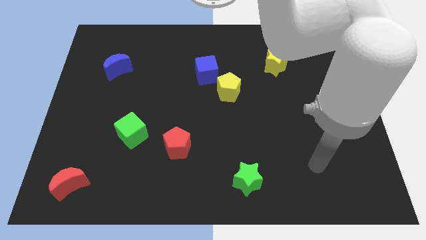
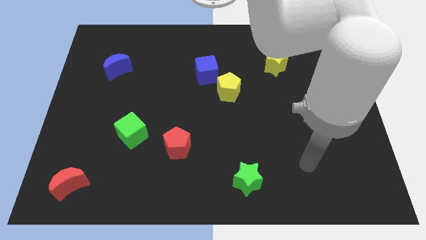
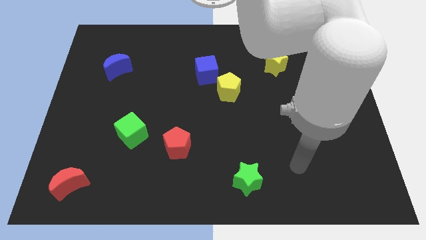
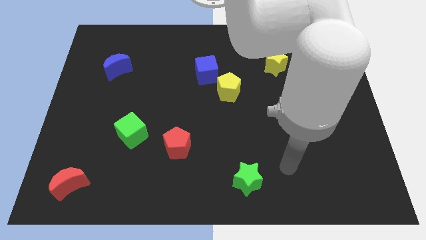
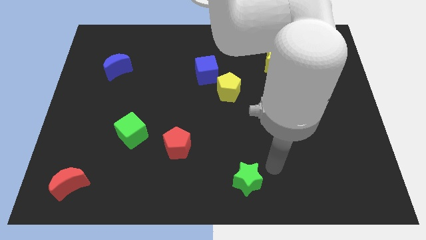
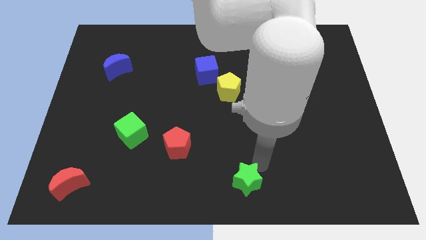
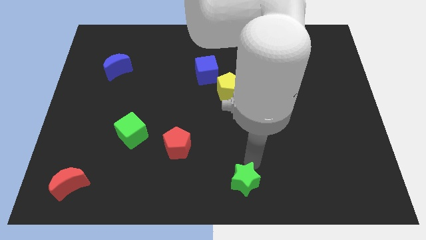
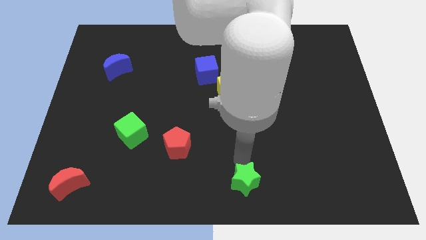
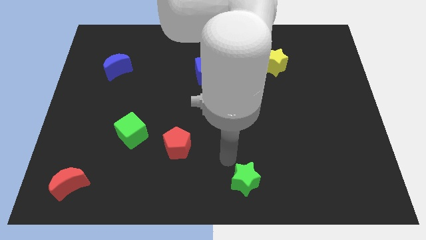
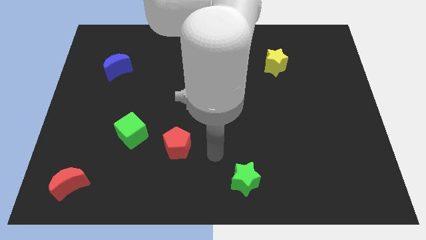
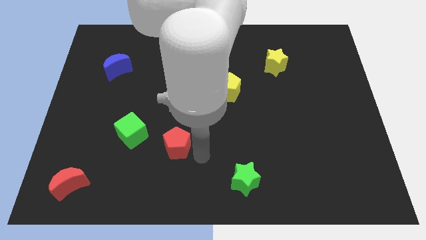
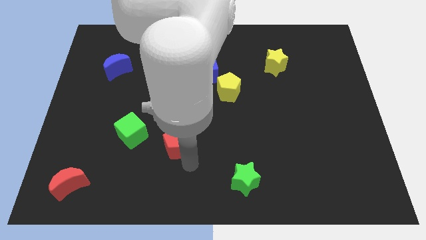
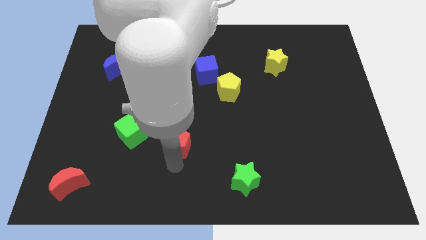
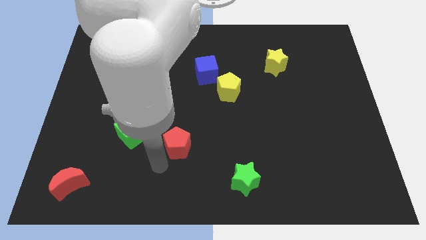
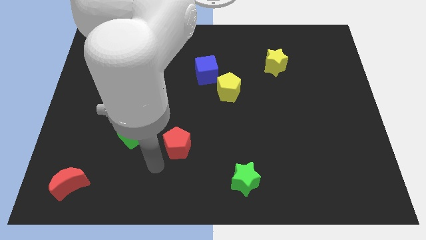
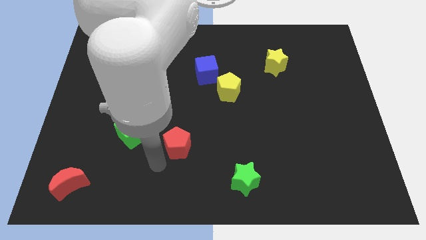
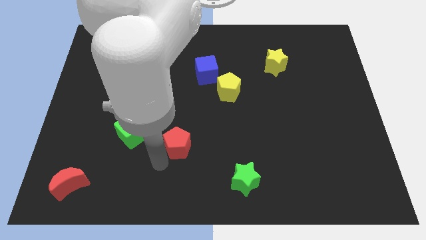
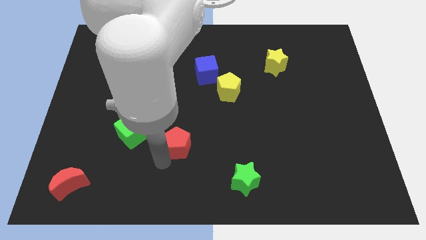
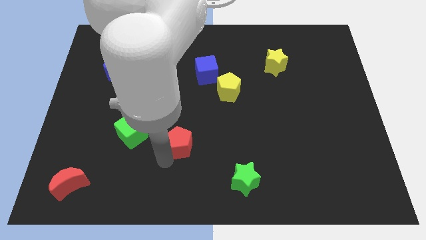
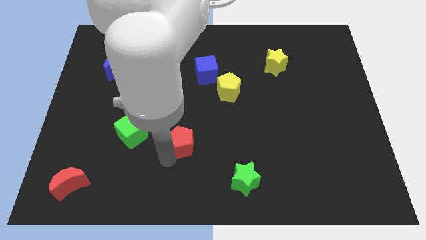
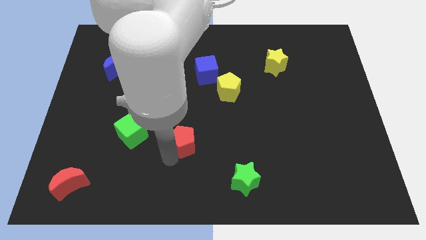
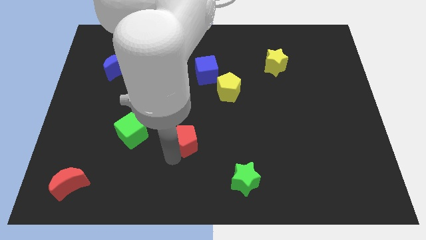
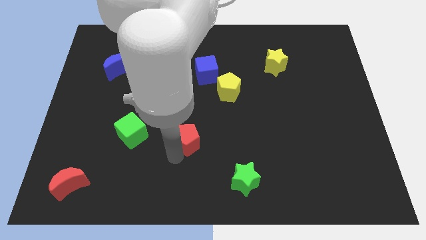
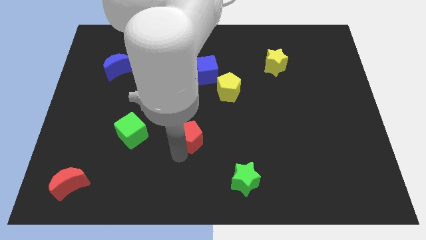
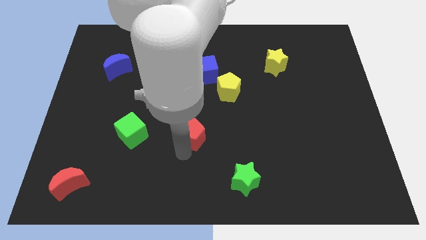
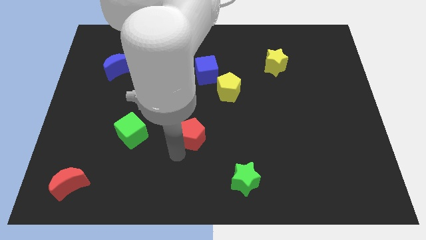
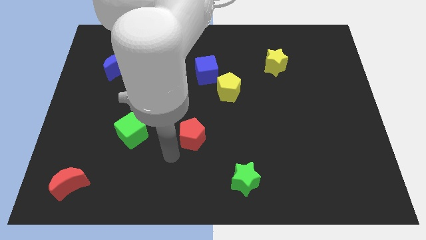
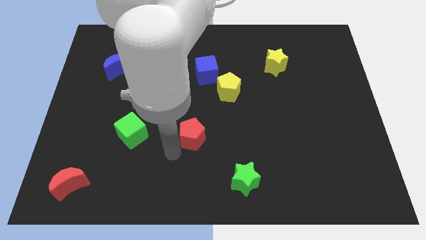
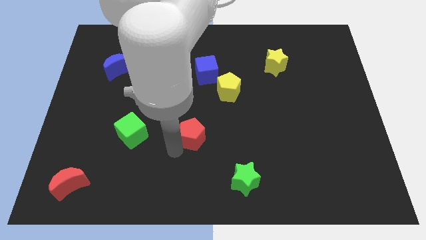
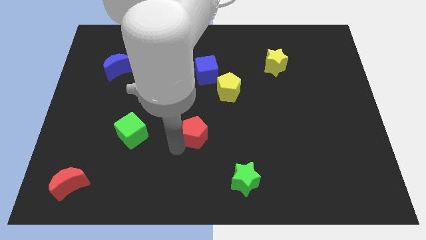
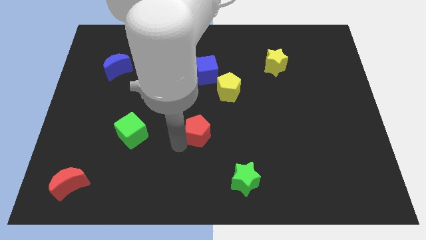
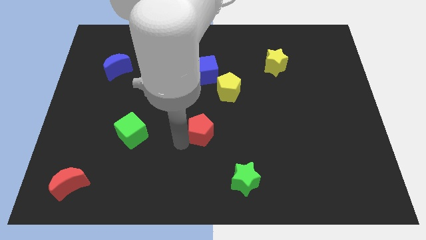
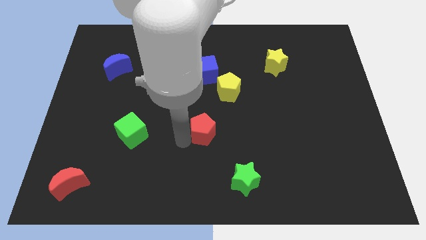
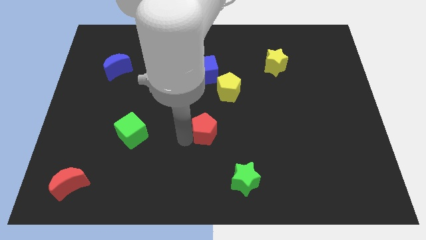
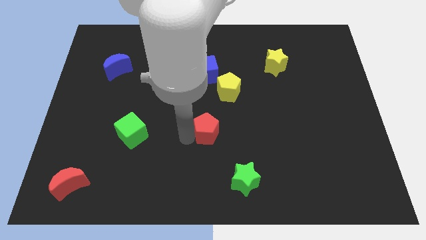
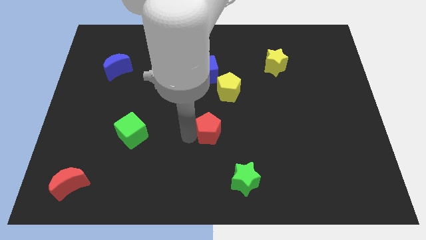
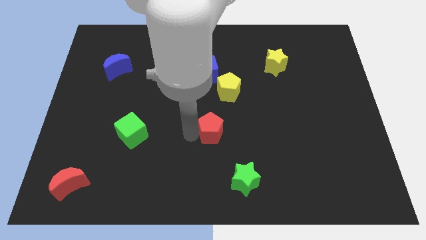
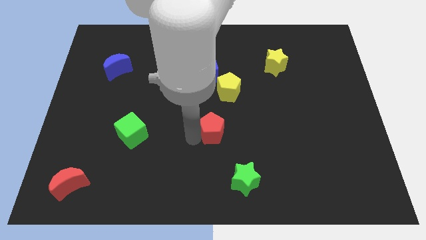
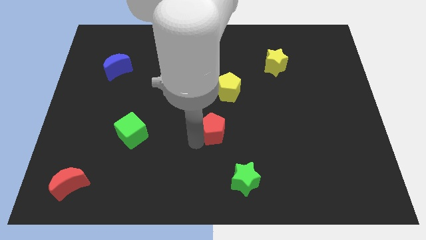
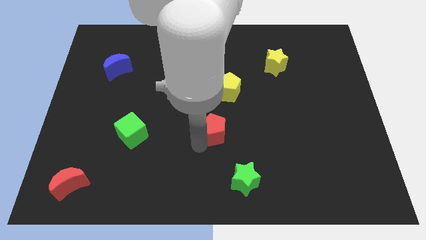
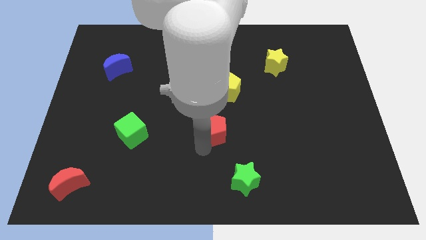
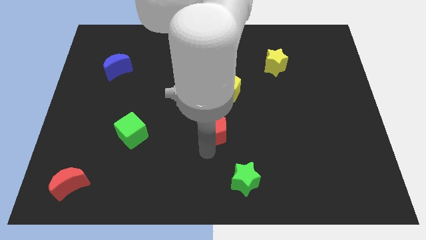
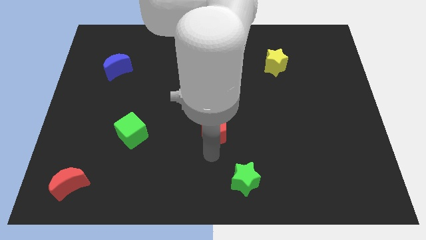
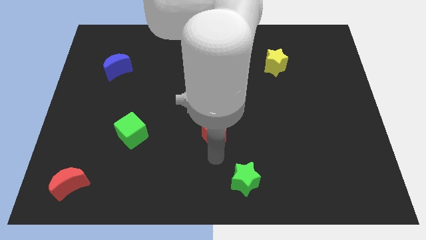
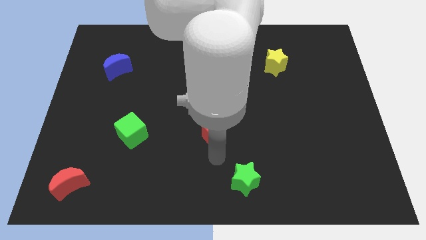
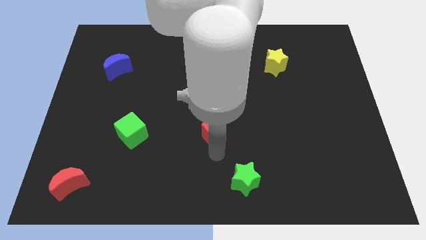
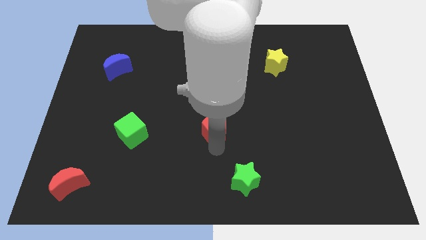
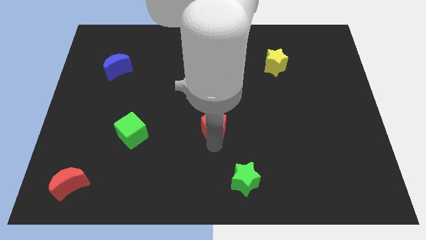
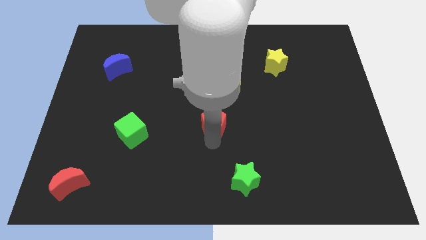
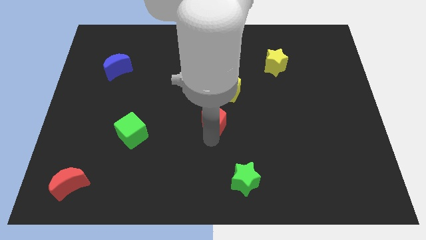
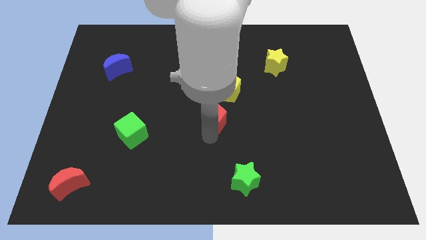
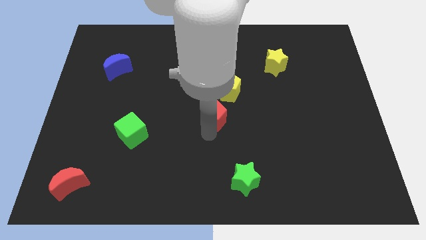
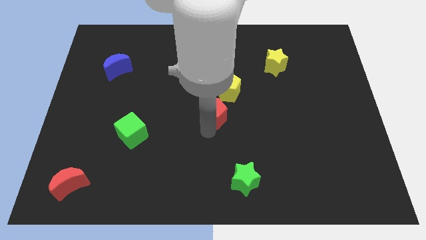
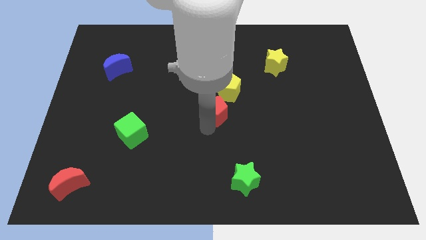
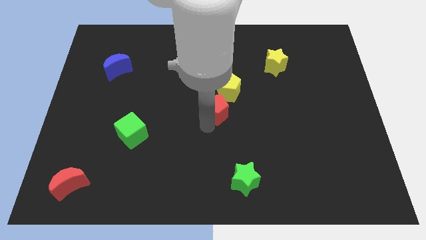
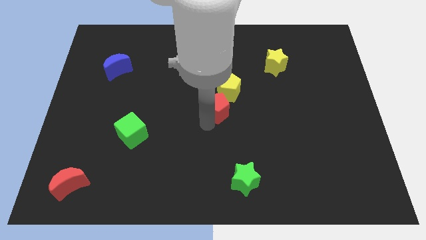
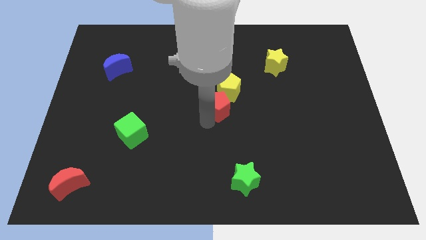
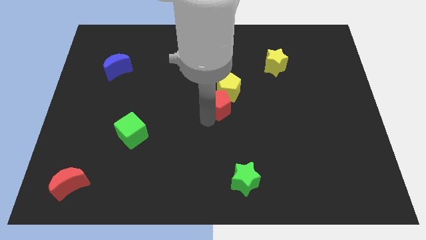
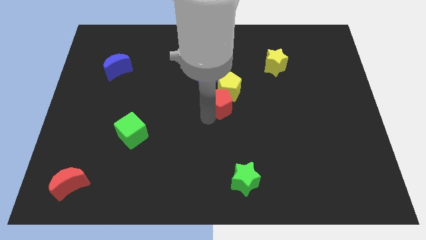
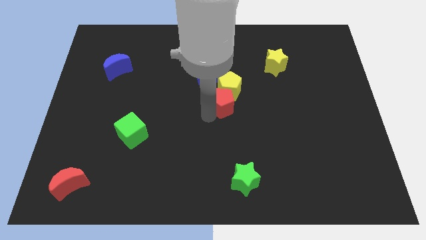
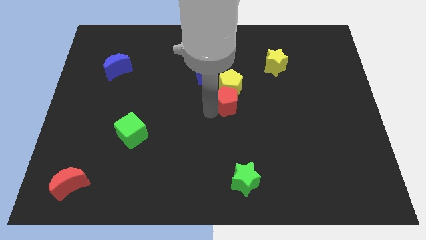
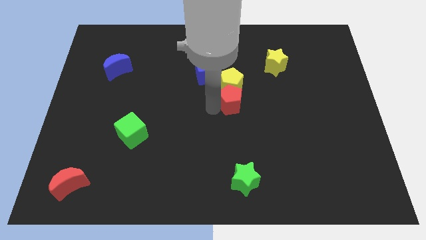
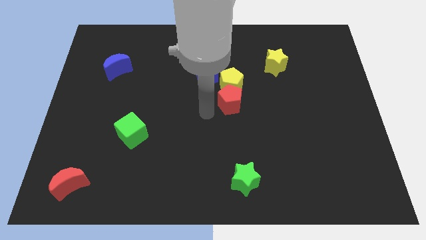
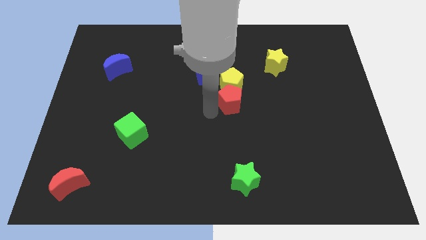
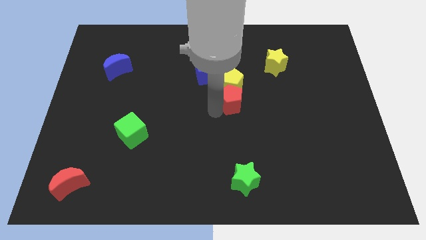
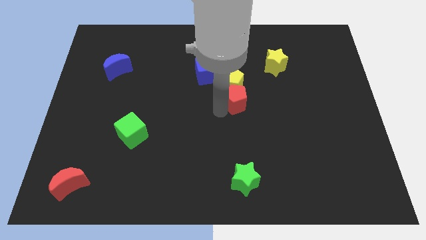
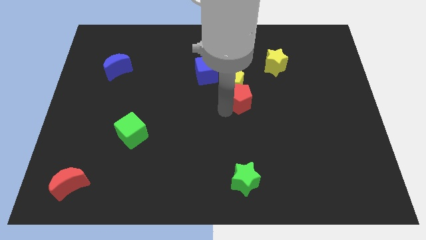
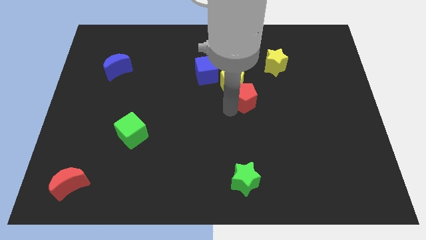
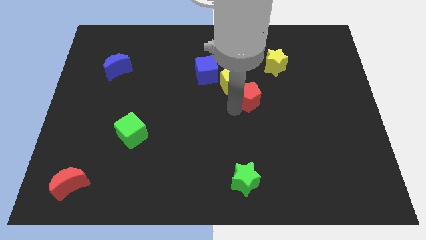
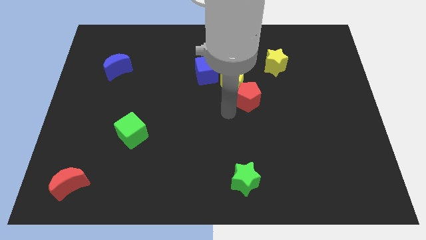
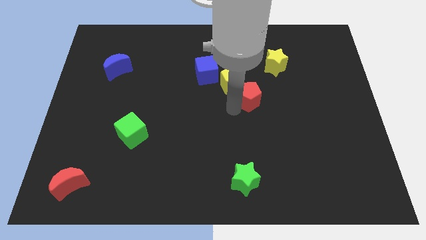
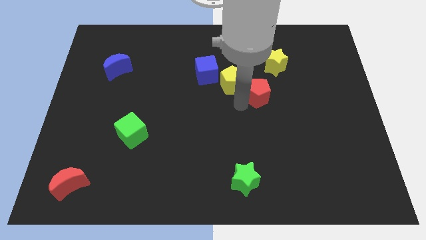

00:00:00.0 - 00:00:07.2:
move the red pentagon to the right side of the yellow pentagon

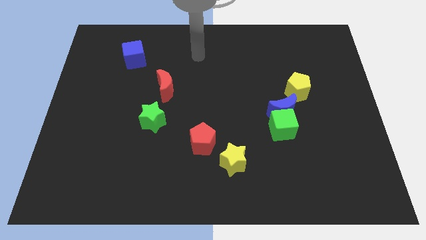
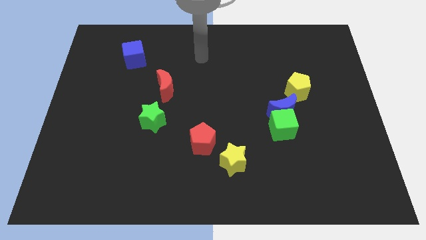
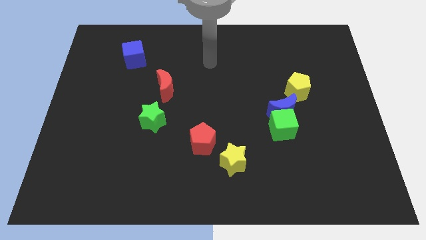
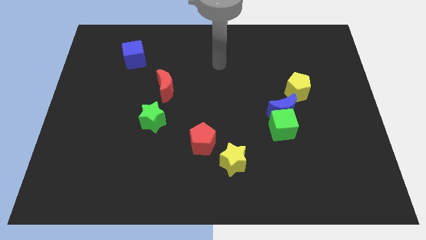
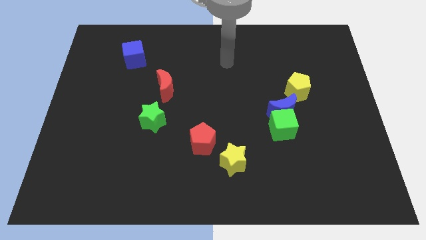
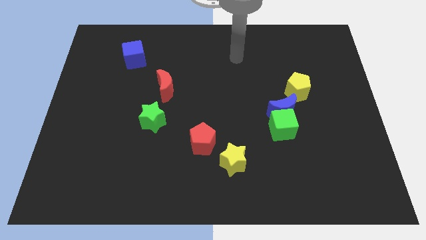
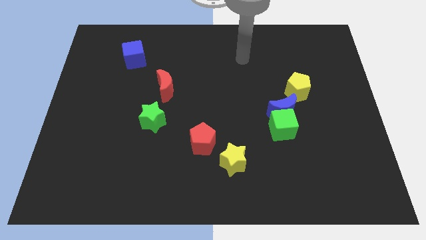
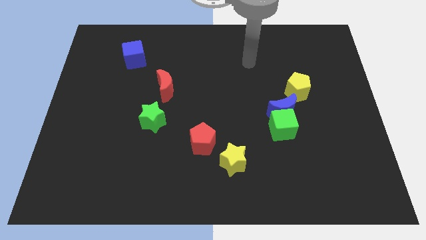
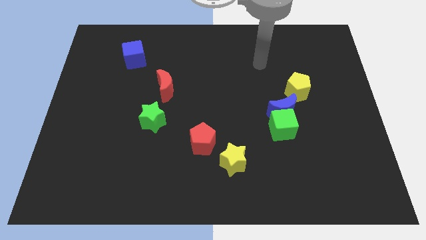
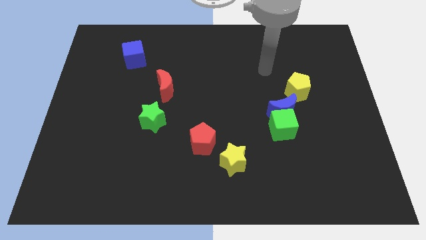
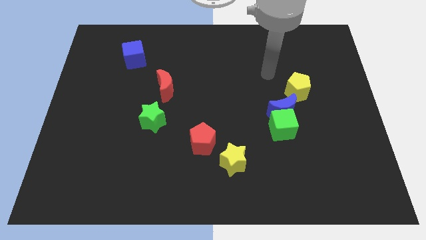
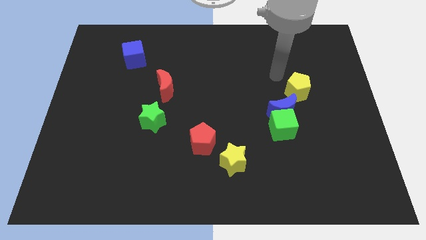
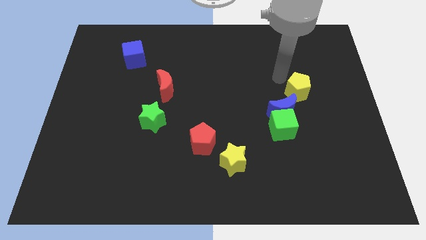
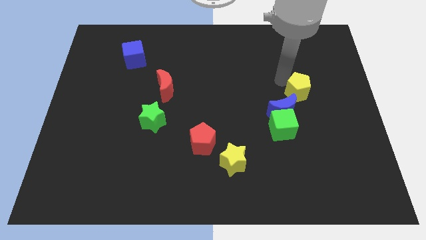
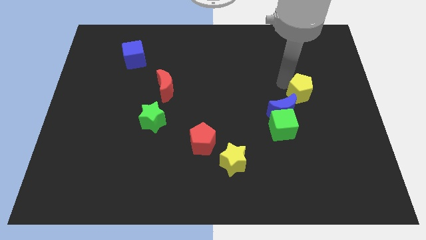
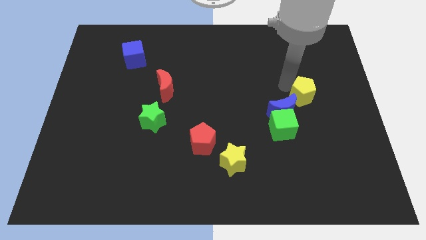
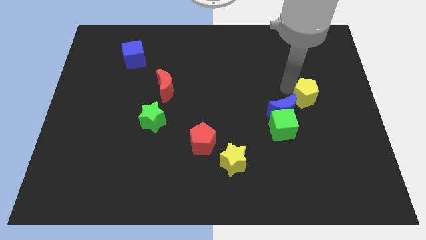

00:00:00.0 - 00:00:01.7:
put the yellow pentagon to the right side of the blue moon
